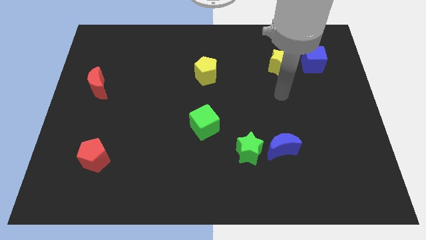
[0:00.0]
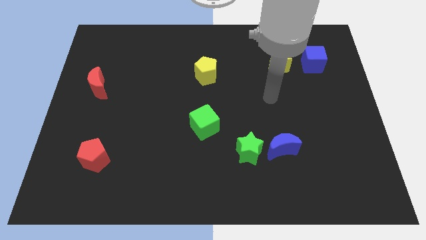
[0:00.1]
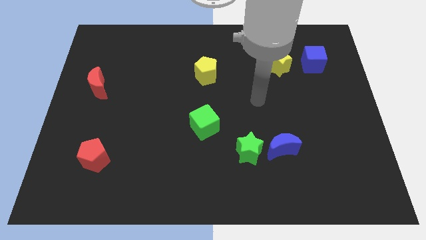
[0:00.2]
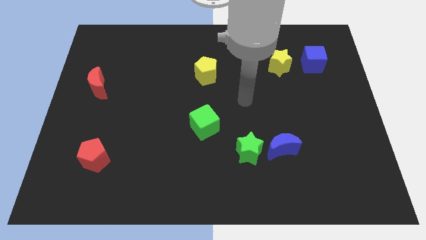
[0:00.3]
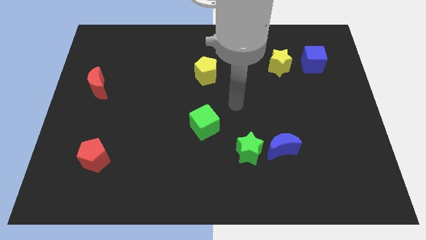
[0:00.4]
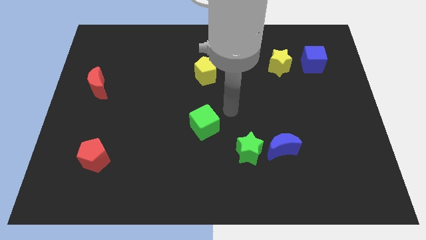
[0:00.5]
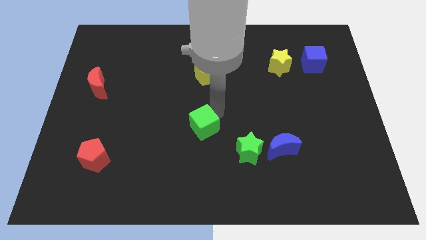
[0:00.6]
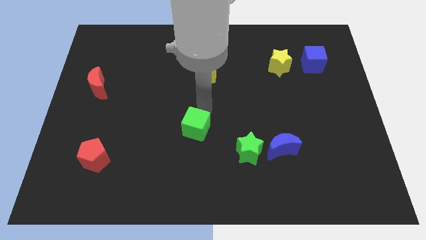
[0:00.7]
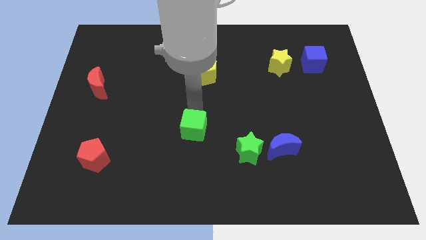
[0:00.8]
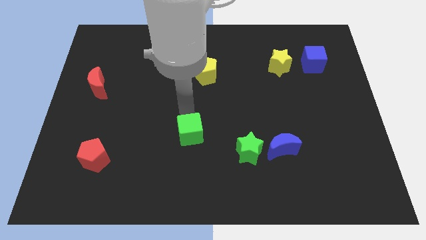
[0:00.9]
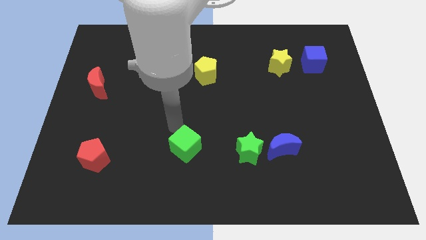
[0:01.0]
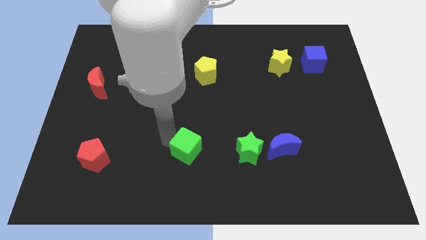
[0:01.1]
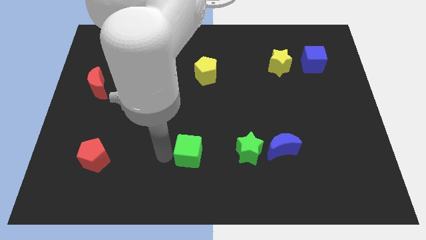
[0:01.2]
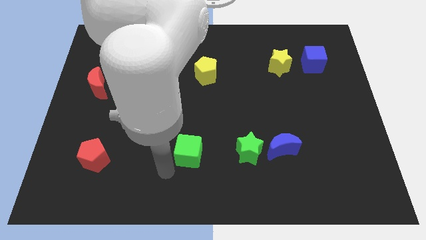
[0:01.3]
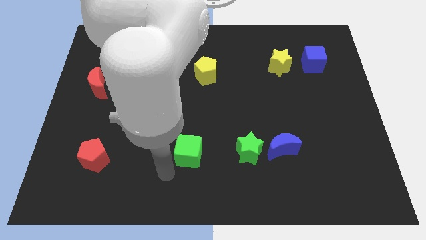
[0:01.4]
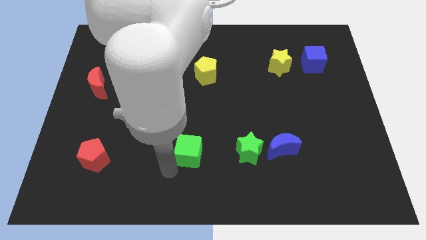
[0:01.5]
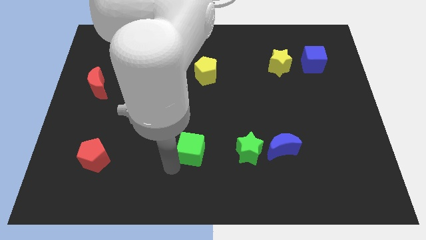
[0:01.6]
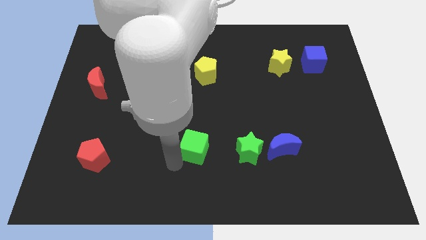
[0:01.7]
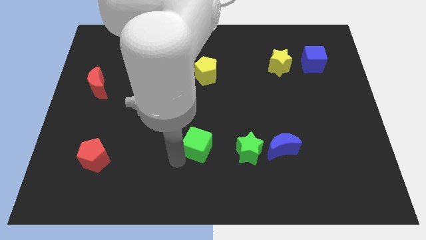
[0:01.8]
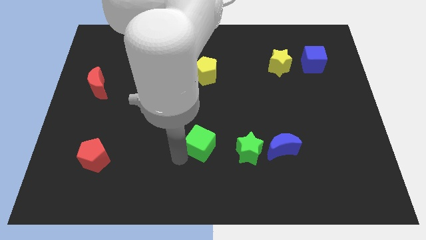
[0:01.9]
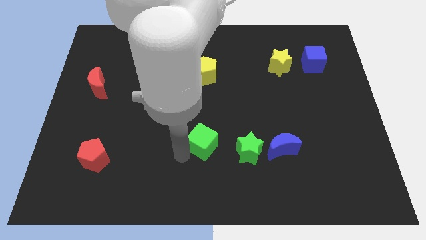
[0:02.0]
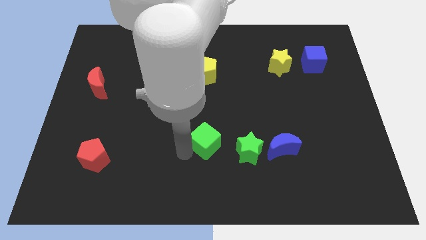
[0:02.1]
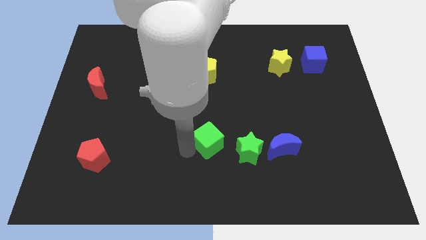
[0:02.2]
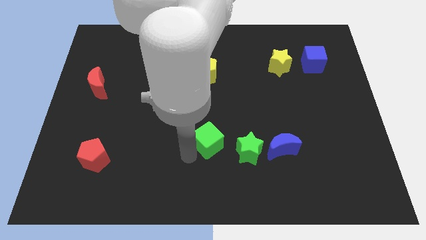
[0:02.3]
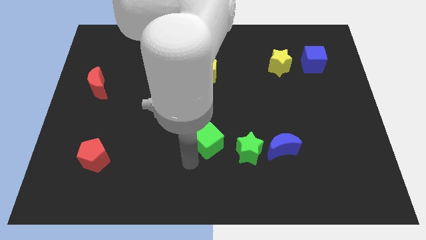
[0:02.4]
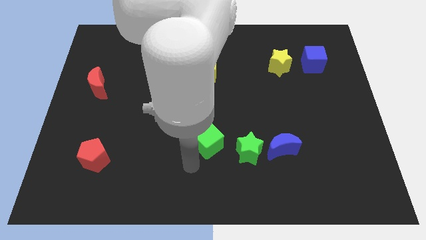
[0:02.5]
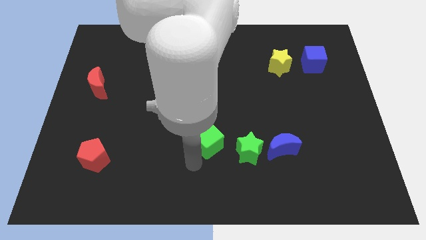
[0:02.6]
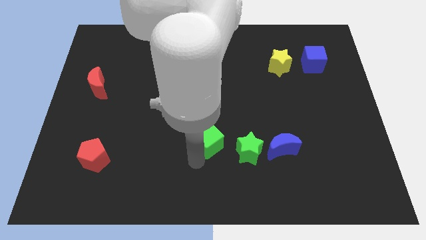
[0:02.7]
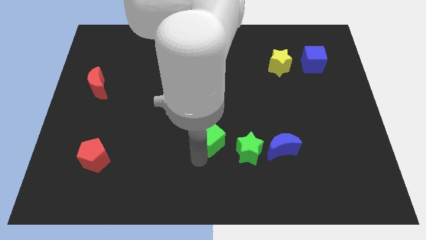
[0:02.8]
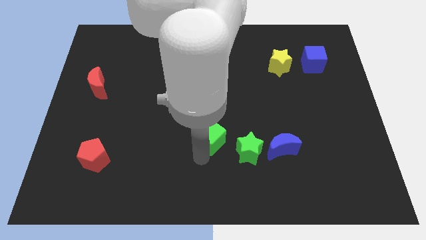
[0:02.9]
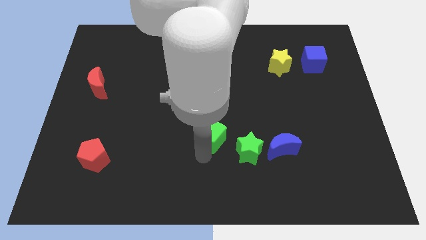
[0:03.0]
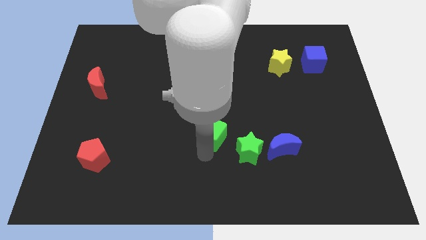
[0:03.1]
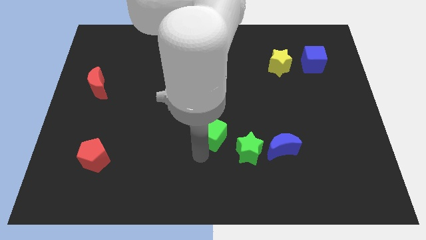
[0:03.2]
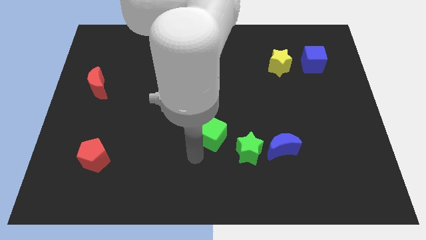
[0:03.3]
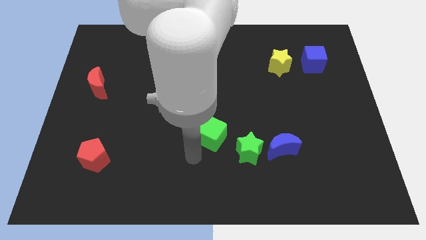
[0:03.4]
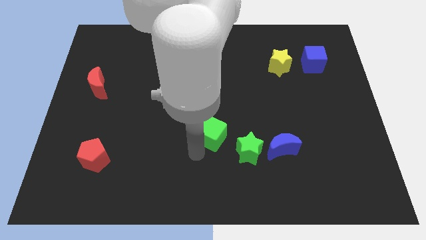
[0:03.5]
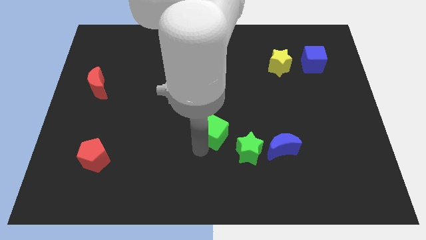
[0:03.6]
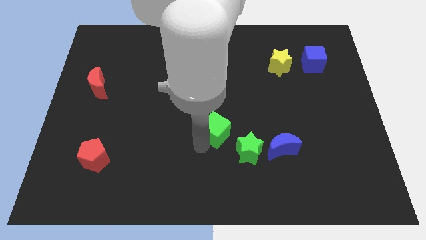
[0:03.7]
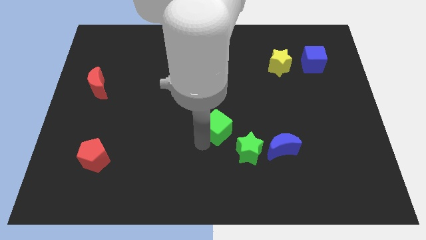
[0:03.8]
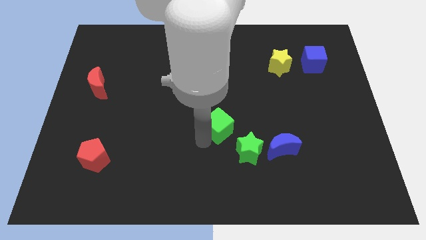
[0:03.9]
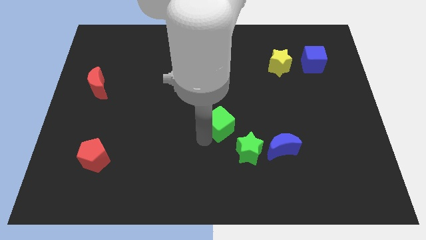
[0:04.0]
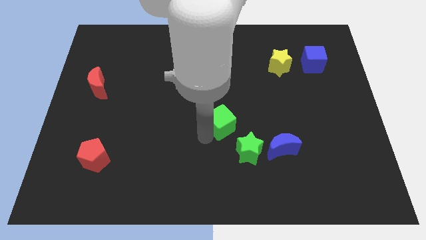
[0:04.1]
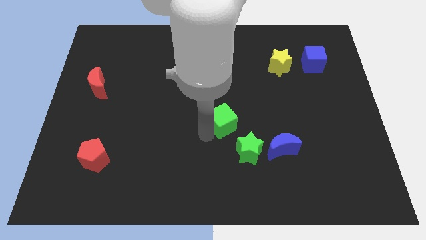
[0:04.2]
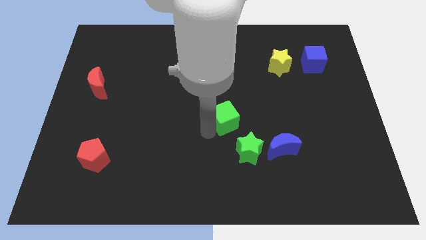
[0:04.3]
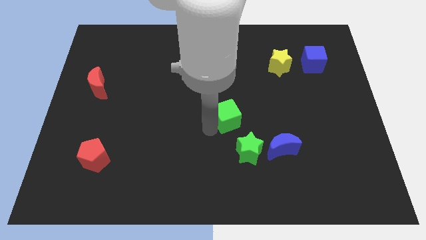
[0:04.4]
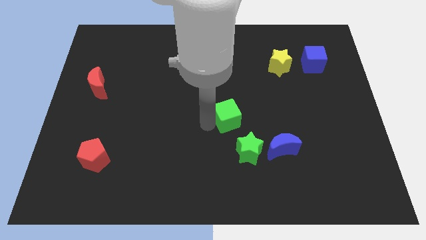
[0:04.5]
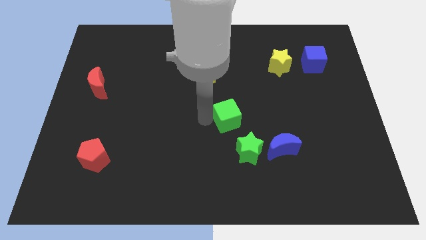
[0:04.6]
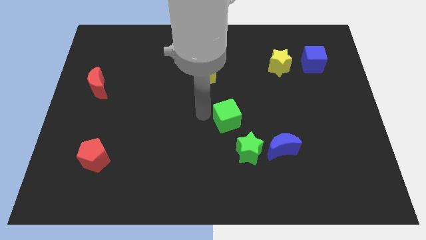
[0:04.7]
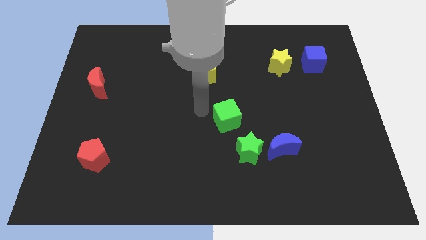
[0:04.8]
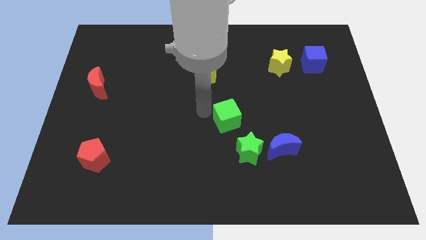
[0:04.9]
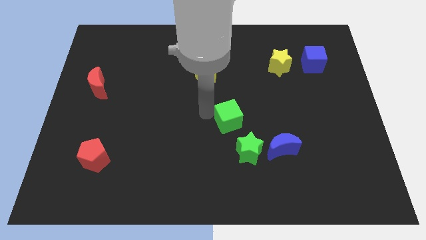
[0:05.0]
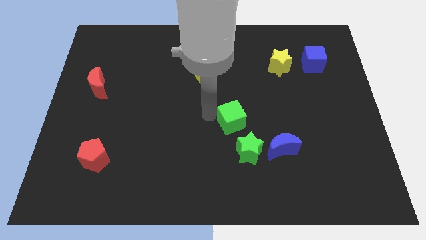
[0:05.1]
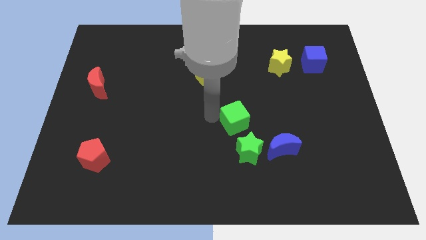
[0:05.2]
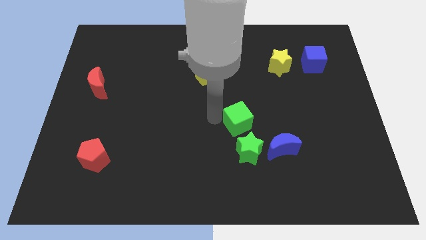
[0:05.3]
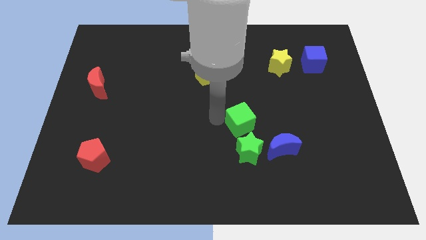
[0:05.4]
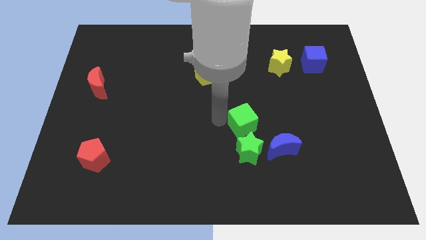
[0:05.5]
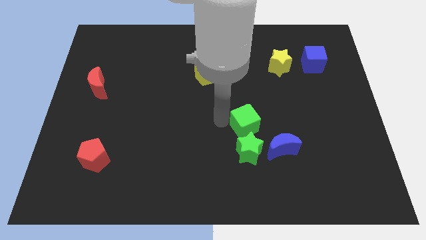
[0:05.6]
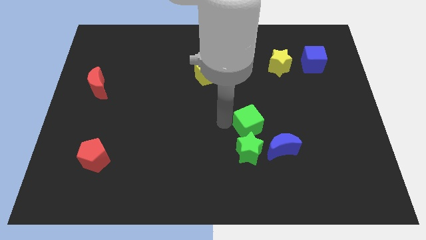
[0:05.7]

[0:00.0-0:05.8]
move the green cube to the top right side of the green star

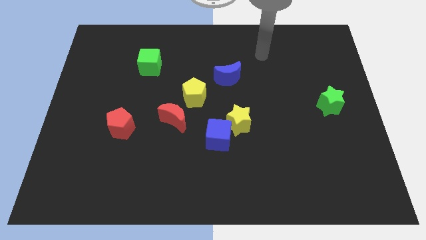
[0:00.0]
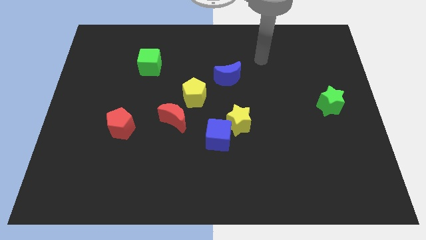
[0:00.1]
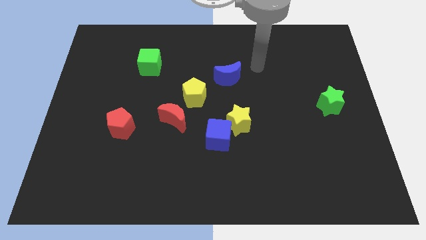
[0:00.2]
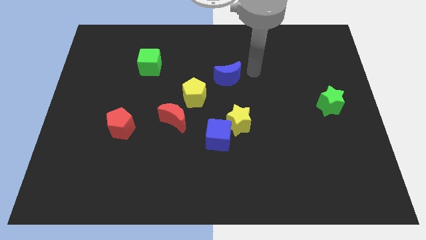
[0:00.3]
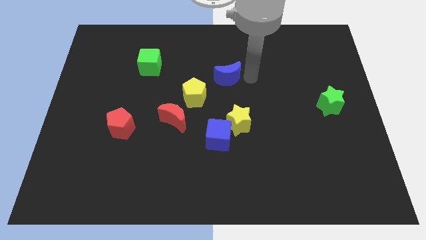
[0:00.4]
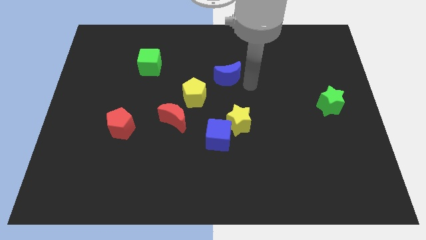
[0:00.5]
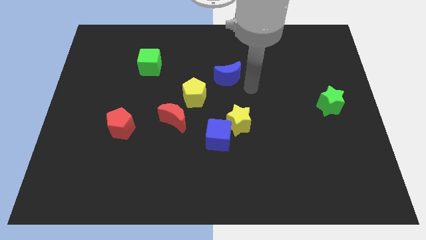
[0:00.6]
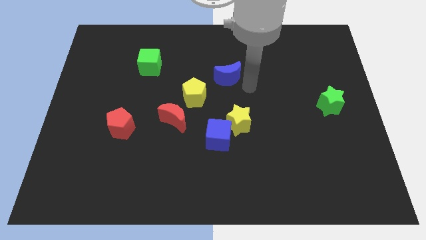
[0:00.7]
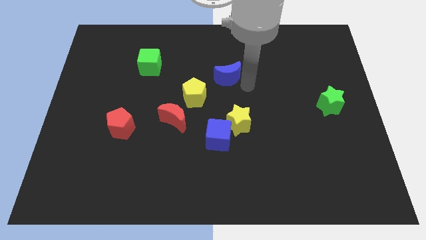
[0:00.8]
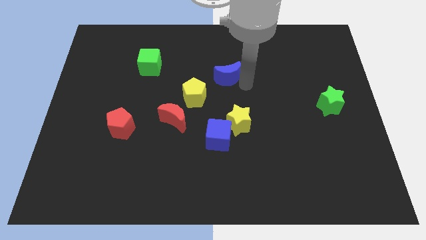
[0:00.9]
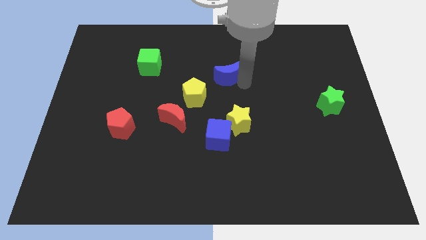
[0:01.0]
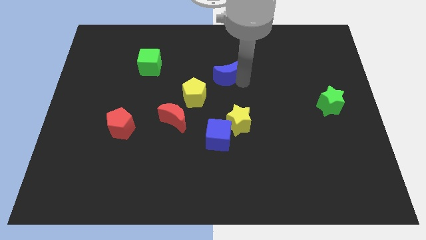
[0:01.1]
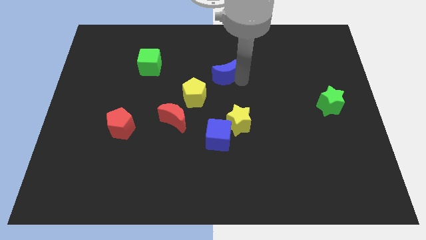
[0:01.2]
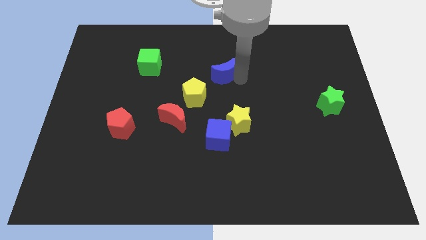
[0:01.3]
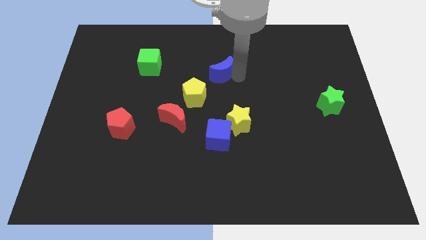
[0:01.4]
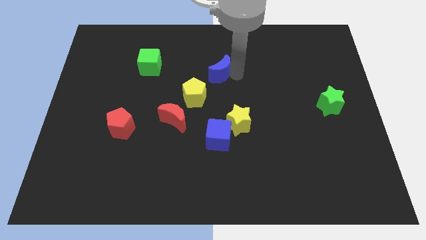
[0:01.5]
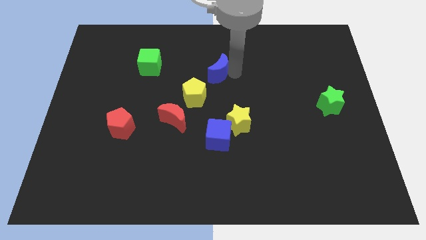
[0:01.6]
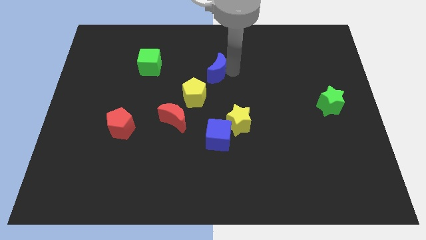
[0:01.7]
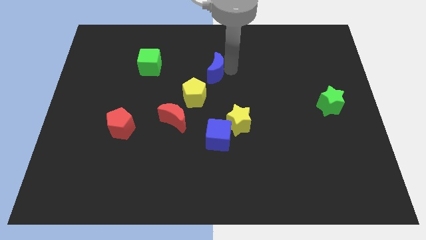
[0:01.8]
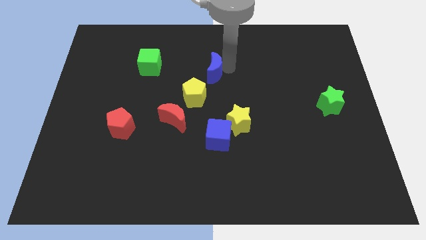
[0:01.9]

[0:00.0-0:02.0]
push the blue moon above the yellow pentagon
